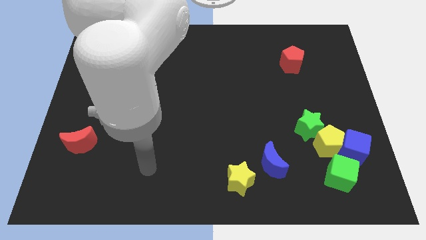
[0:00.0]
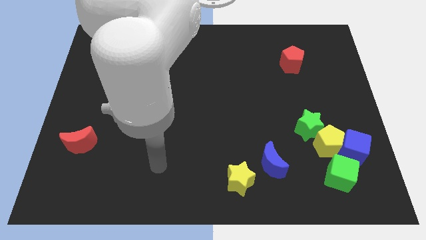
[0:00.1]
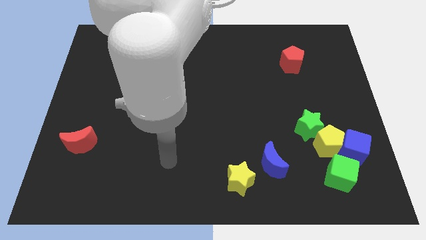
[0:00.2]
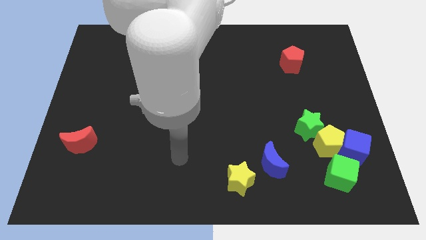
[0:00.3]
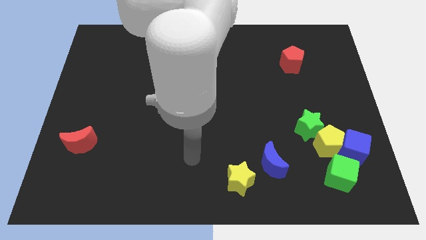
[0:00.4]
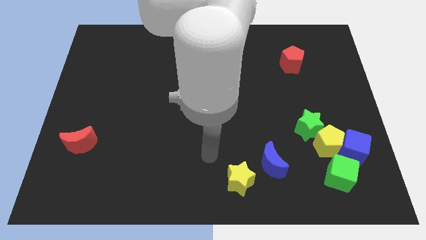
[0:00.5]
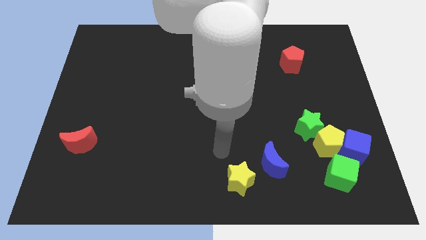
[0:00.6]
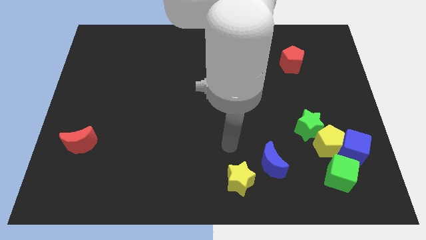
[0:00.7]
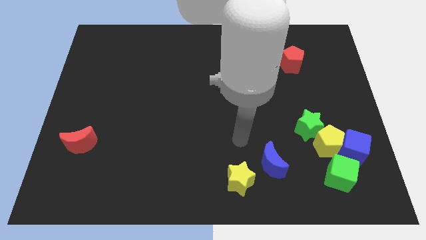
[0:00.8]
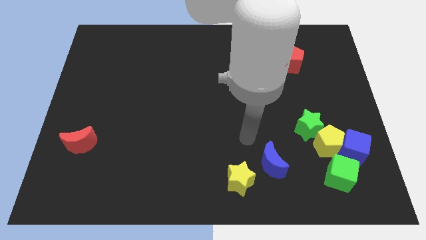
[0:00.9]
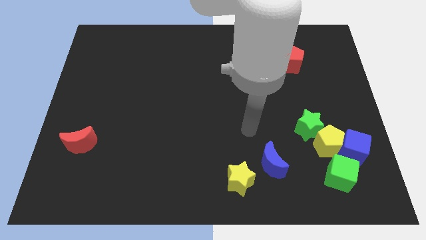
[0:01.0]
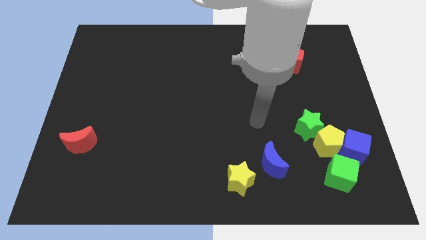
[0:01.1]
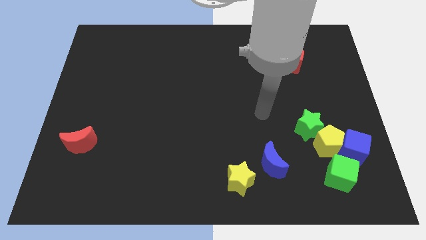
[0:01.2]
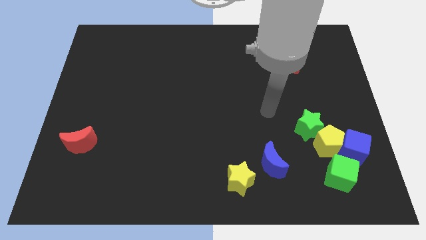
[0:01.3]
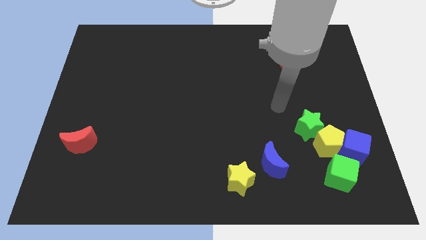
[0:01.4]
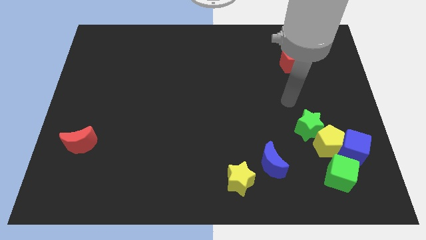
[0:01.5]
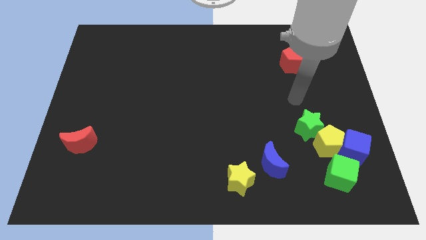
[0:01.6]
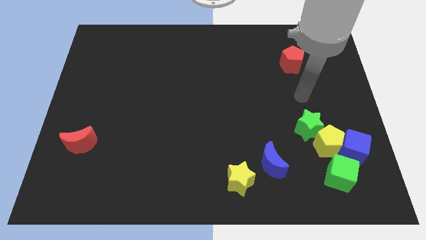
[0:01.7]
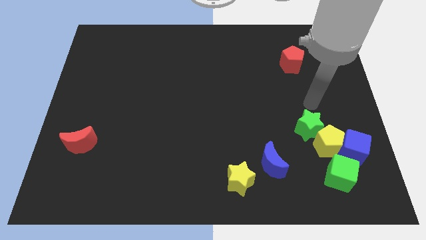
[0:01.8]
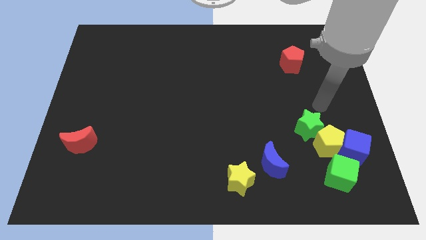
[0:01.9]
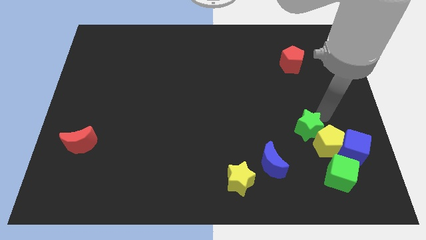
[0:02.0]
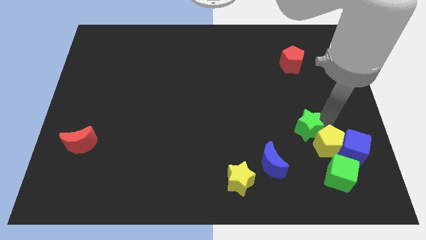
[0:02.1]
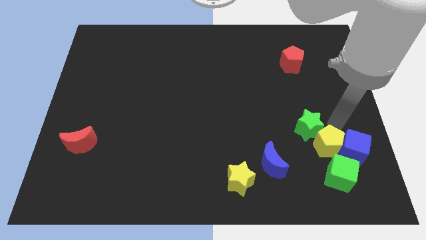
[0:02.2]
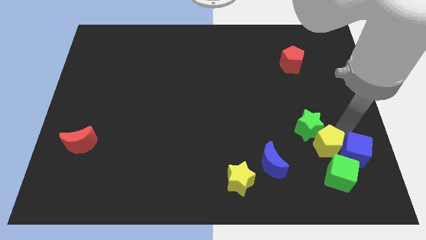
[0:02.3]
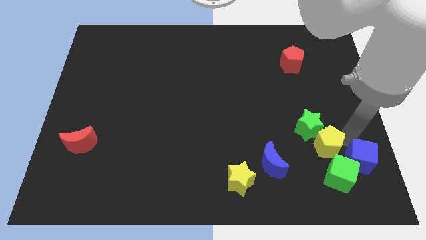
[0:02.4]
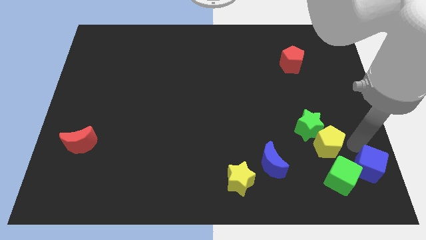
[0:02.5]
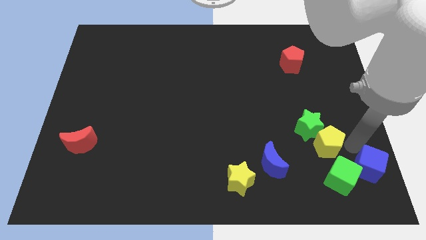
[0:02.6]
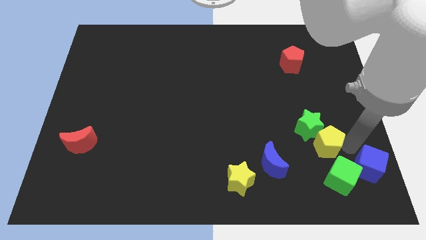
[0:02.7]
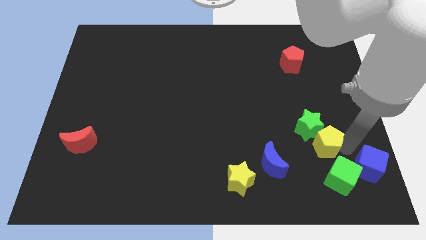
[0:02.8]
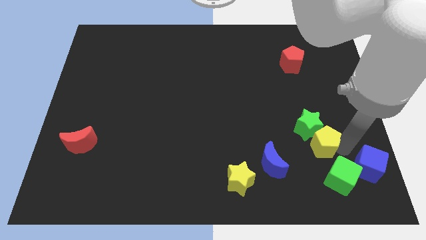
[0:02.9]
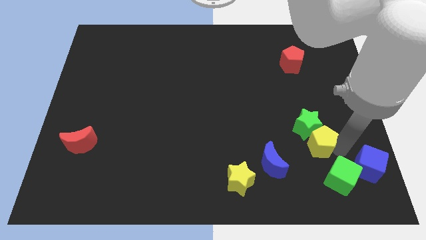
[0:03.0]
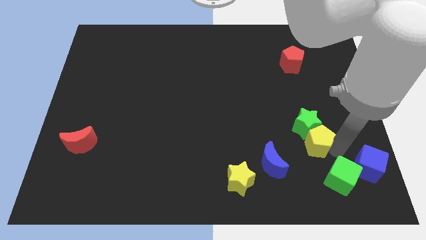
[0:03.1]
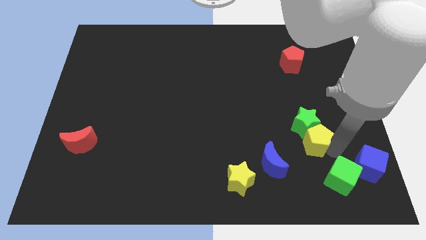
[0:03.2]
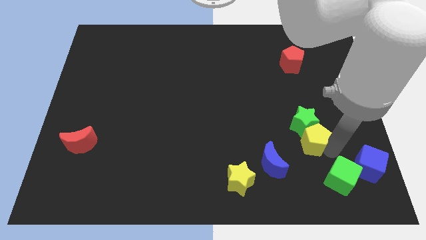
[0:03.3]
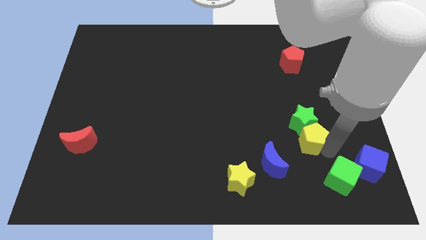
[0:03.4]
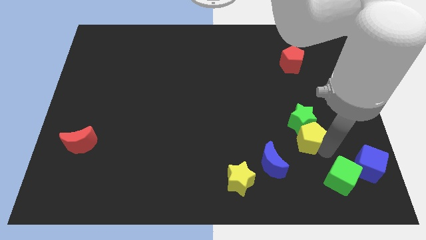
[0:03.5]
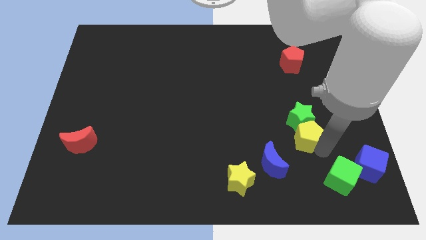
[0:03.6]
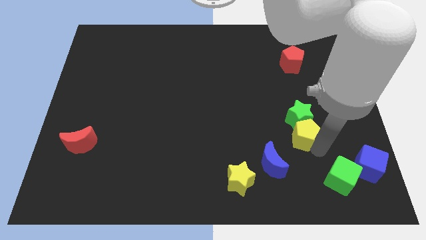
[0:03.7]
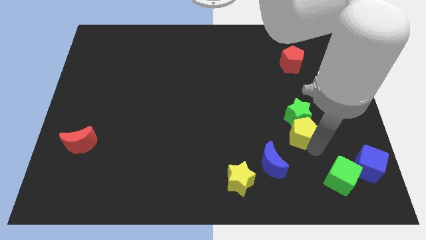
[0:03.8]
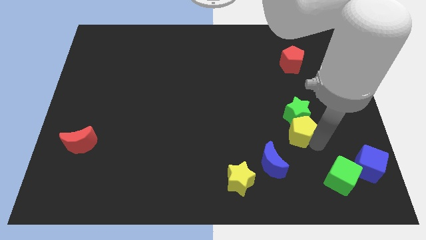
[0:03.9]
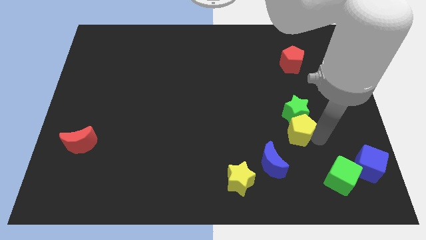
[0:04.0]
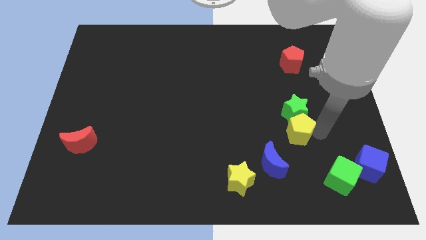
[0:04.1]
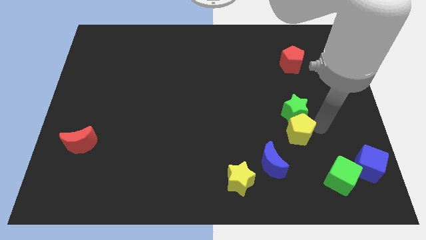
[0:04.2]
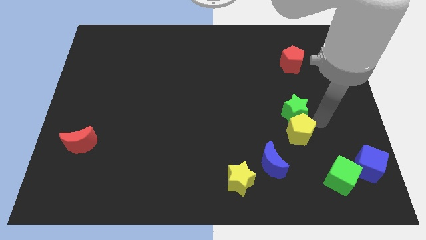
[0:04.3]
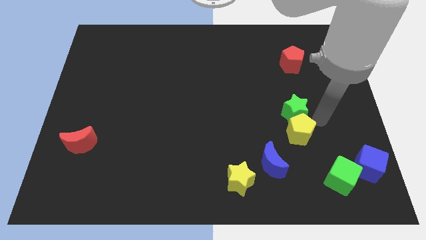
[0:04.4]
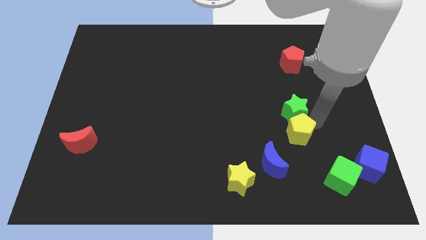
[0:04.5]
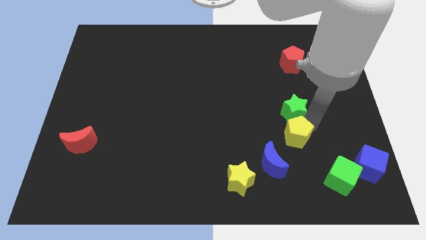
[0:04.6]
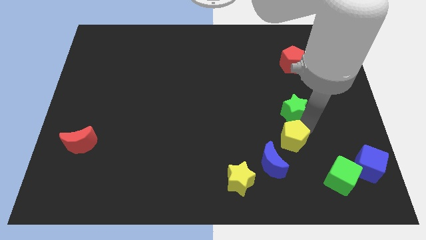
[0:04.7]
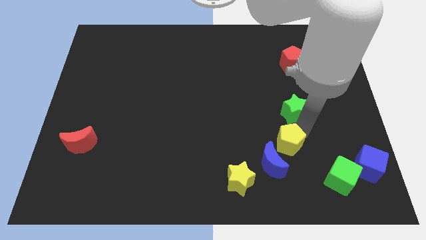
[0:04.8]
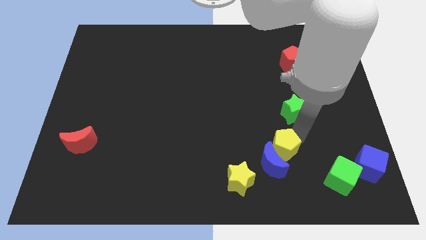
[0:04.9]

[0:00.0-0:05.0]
separate the yellow pentagon from the green star, blue cube, and green cube

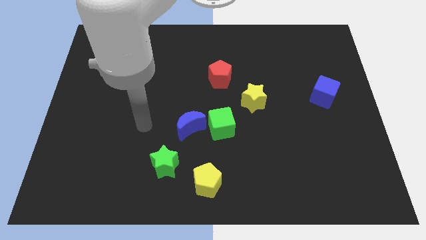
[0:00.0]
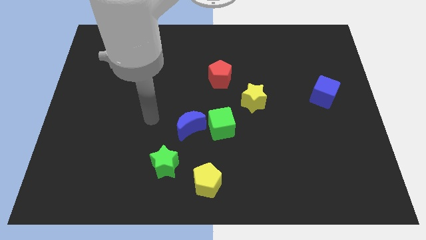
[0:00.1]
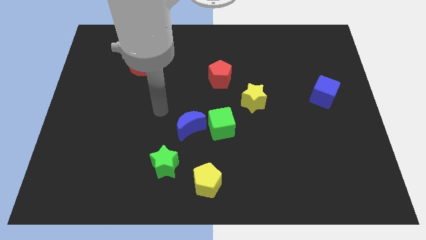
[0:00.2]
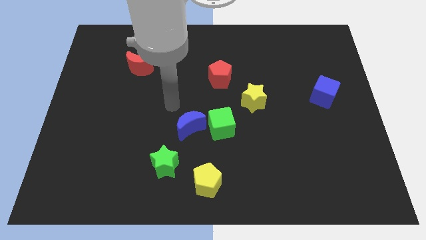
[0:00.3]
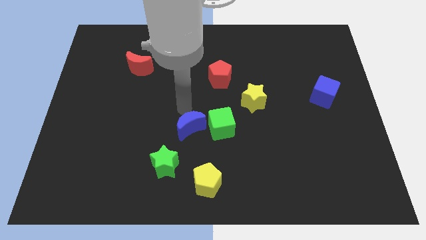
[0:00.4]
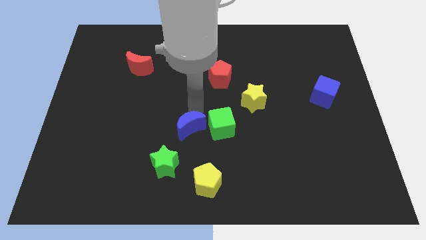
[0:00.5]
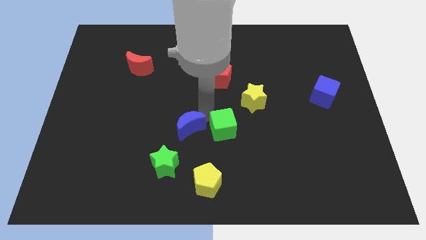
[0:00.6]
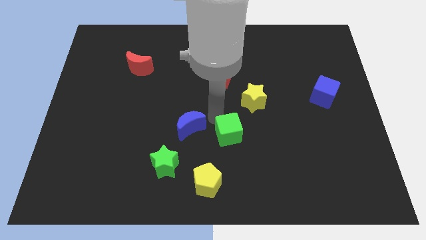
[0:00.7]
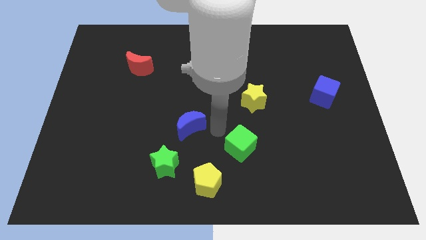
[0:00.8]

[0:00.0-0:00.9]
pull the blue moon apart from the green cube

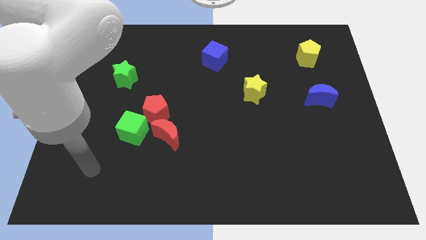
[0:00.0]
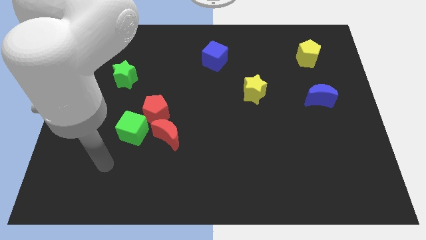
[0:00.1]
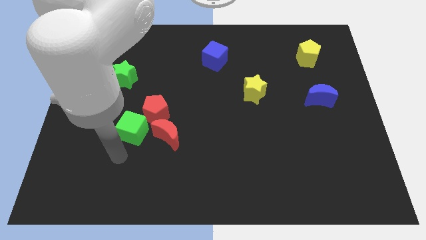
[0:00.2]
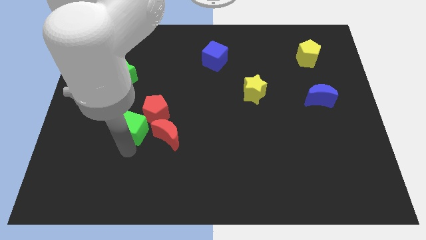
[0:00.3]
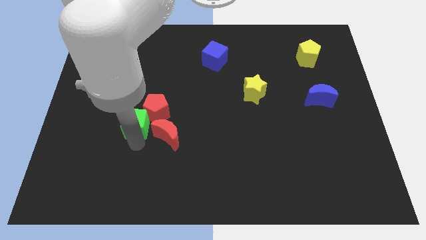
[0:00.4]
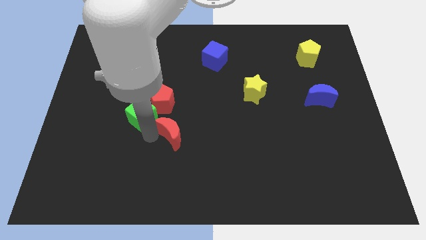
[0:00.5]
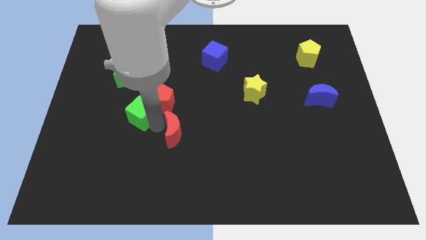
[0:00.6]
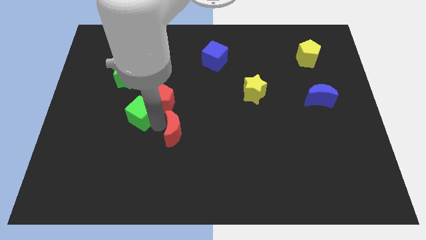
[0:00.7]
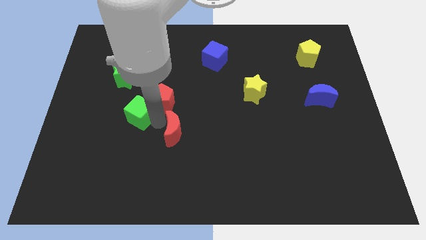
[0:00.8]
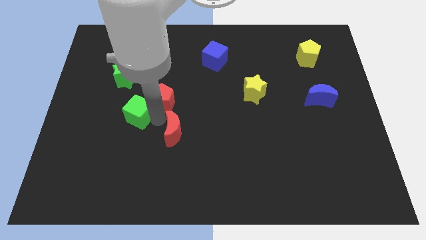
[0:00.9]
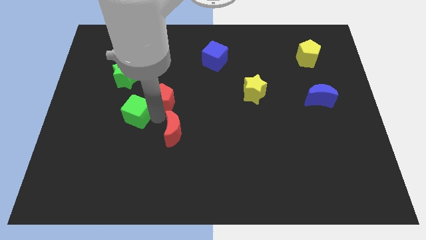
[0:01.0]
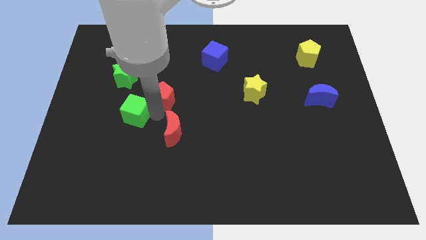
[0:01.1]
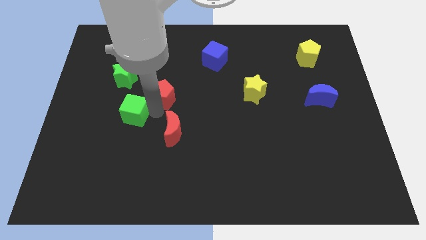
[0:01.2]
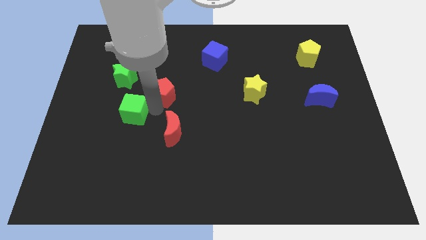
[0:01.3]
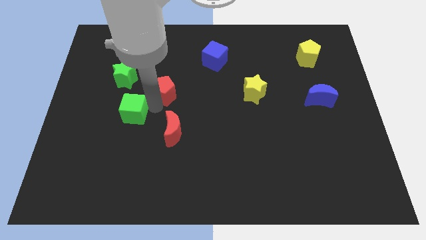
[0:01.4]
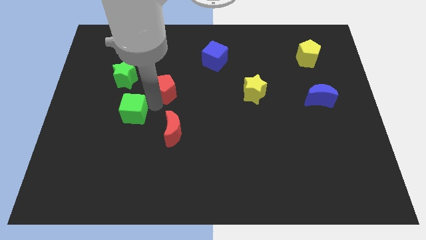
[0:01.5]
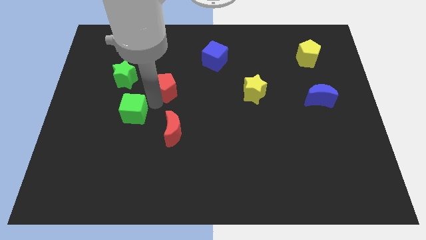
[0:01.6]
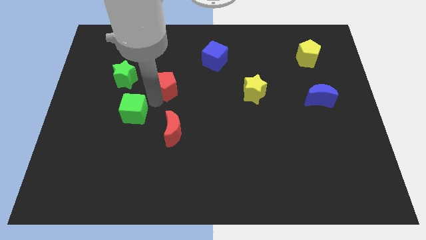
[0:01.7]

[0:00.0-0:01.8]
pull the red pentagon apart from the green cube and red moon

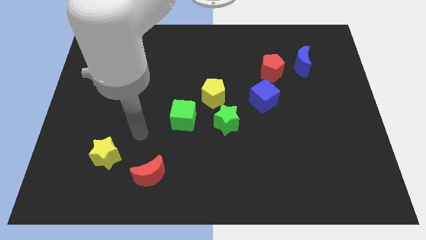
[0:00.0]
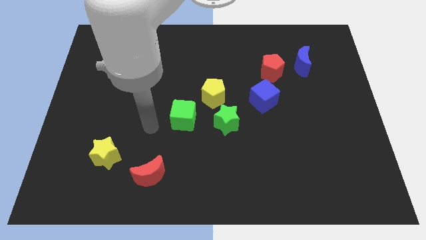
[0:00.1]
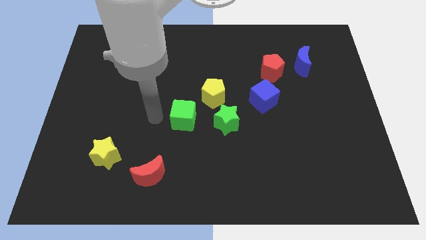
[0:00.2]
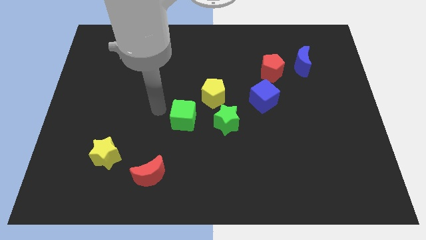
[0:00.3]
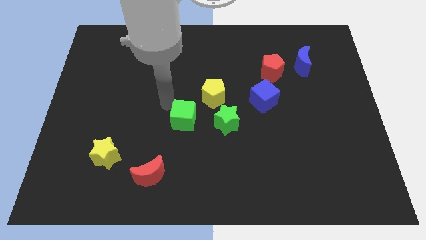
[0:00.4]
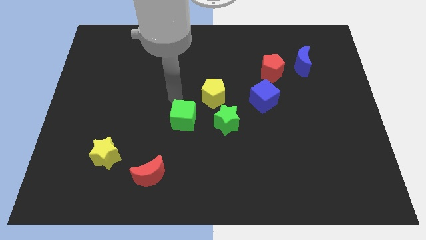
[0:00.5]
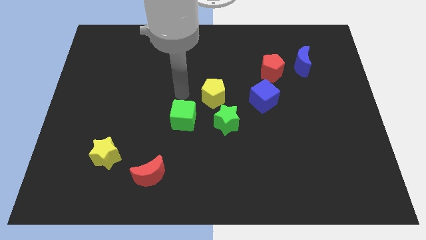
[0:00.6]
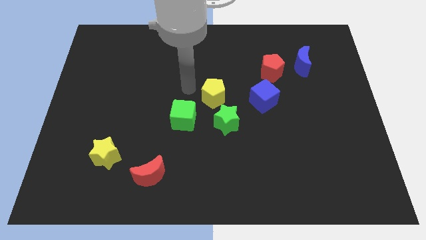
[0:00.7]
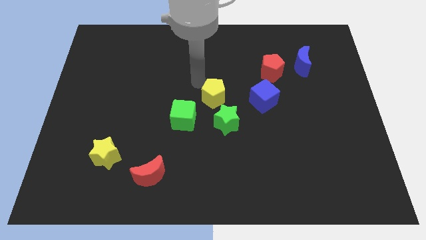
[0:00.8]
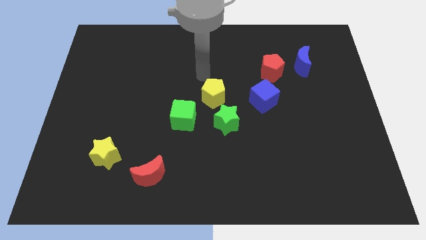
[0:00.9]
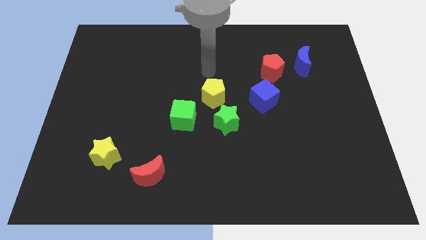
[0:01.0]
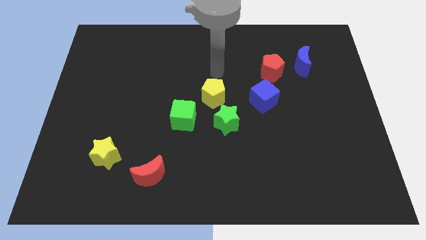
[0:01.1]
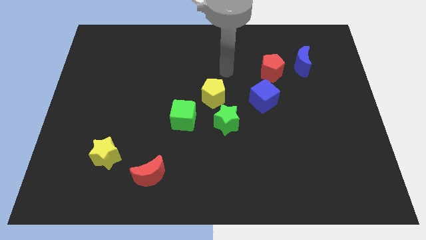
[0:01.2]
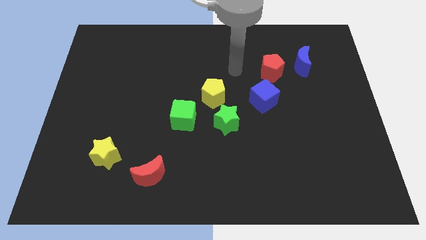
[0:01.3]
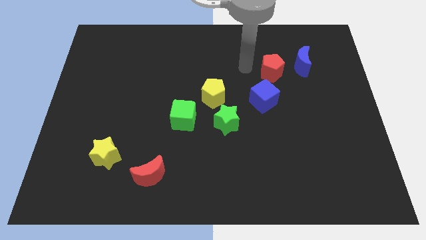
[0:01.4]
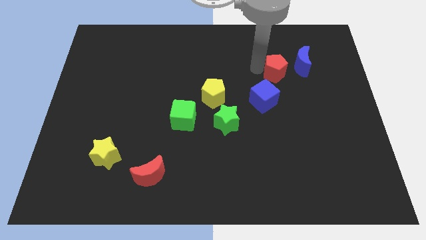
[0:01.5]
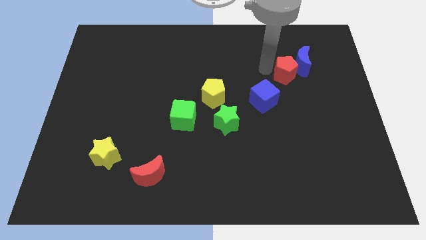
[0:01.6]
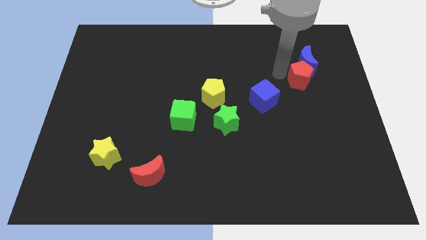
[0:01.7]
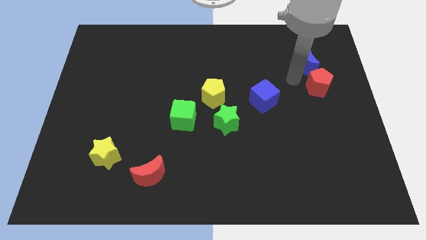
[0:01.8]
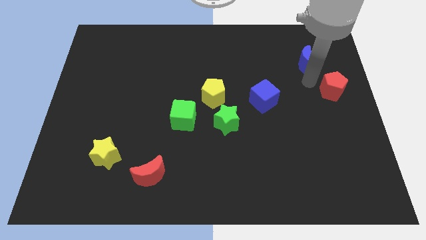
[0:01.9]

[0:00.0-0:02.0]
separate the blue moon from the red pentagon
